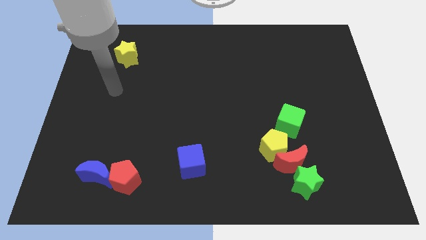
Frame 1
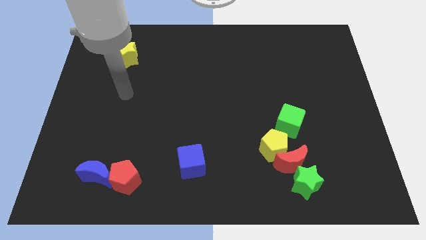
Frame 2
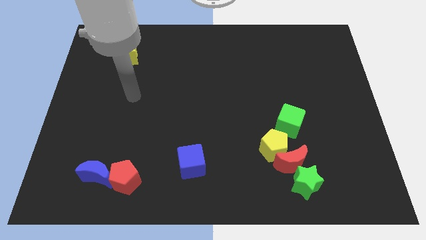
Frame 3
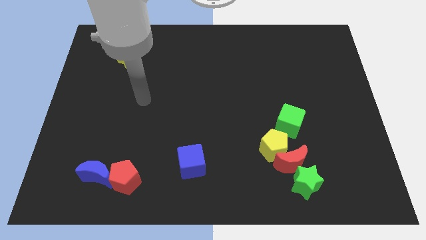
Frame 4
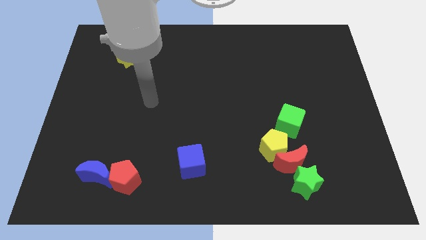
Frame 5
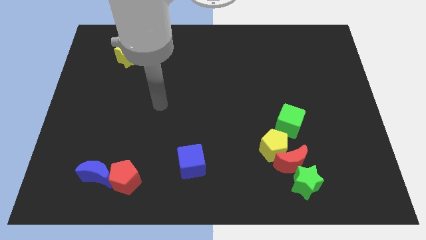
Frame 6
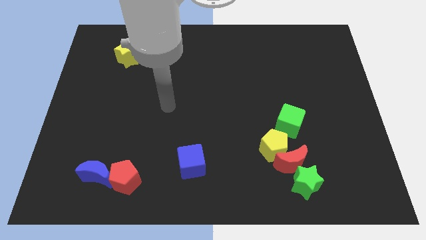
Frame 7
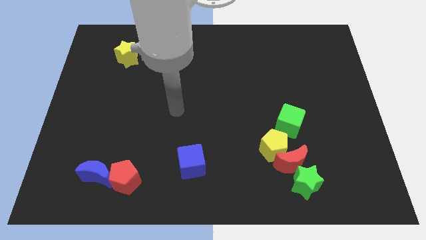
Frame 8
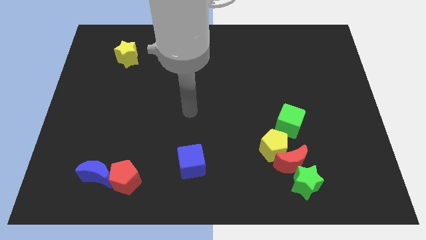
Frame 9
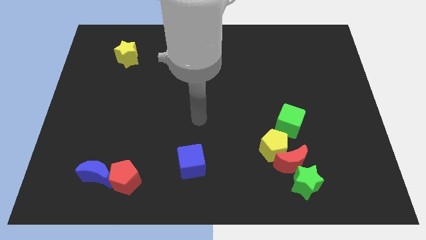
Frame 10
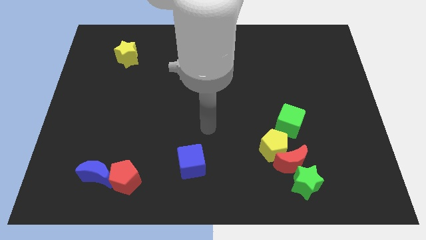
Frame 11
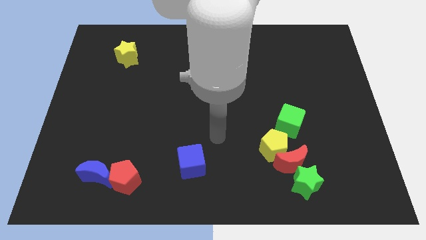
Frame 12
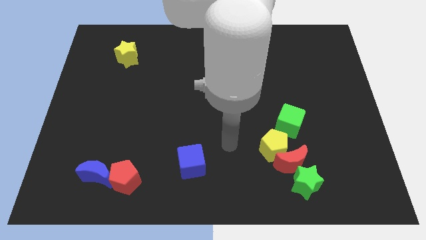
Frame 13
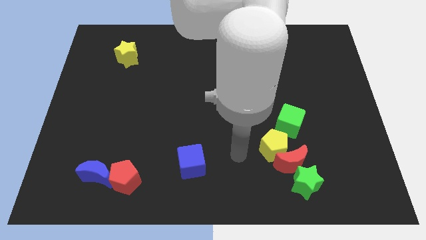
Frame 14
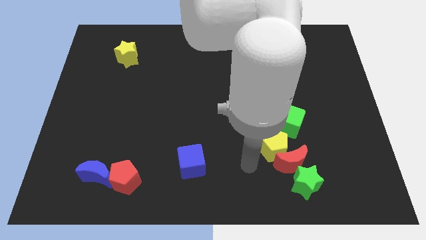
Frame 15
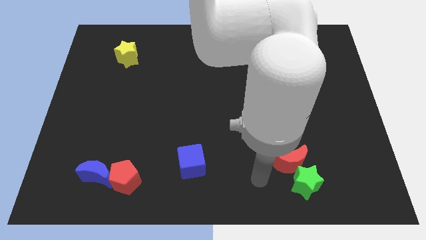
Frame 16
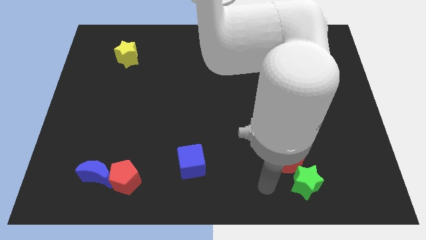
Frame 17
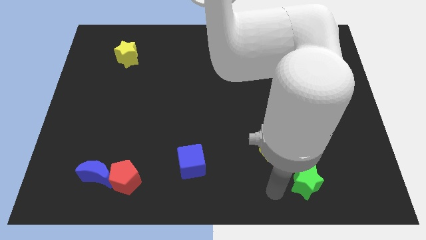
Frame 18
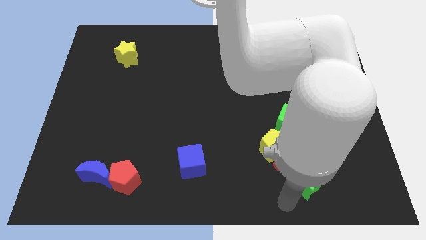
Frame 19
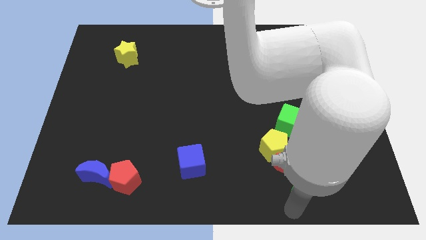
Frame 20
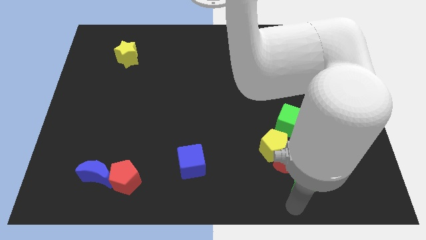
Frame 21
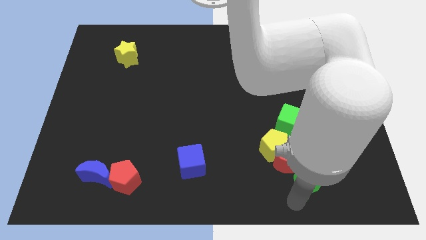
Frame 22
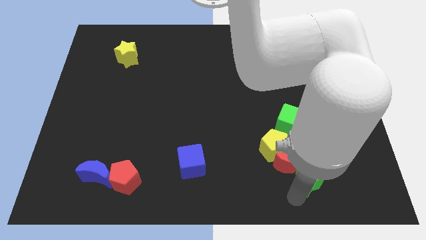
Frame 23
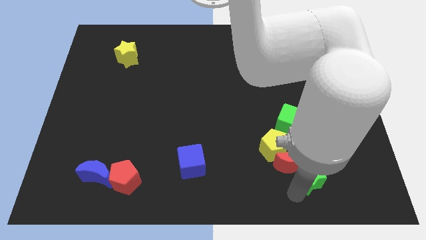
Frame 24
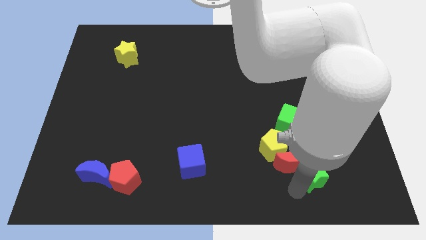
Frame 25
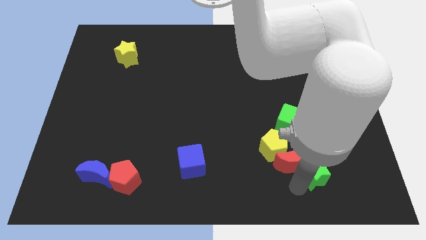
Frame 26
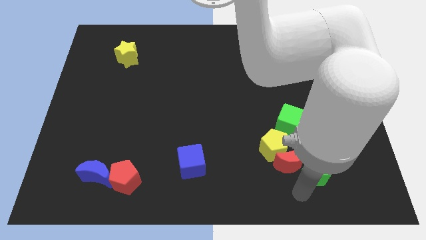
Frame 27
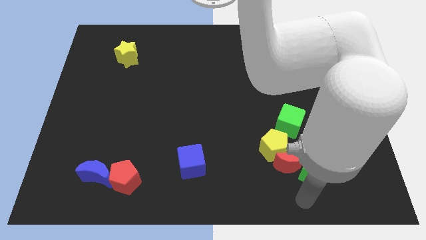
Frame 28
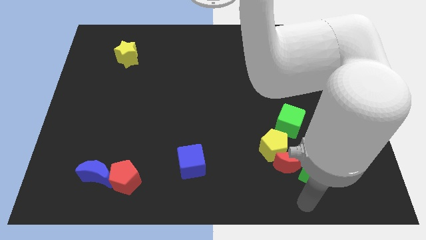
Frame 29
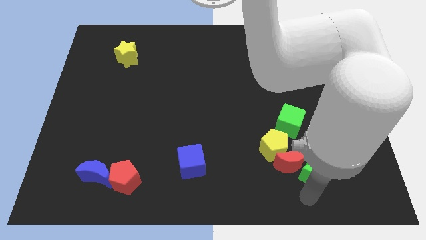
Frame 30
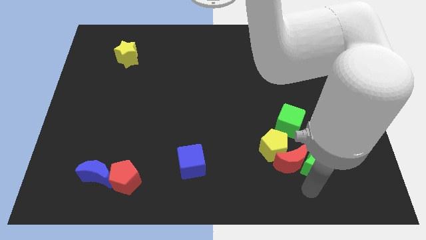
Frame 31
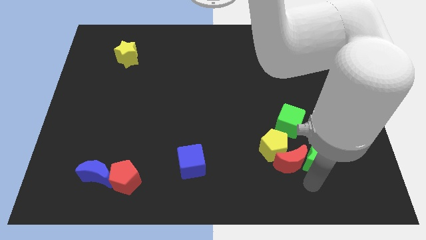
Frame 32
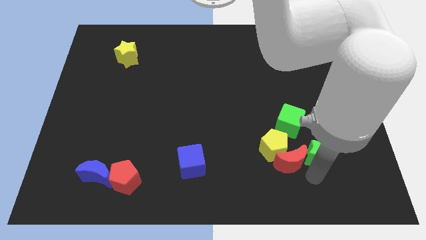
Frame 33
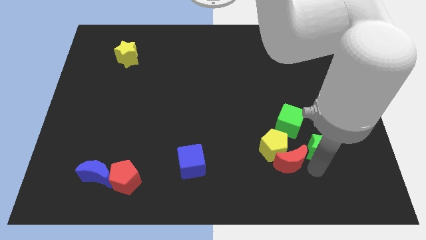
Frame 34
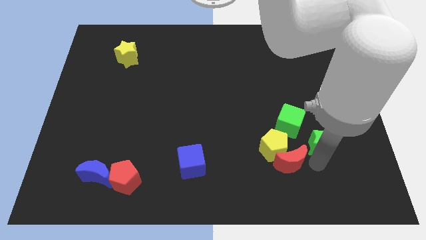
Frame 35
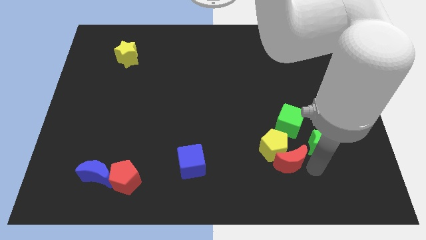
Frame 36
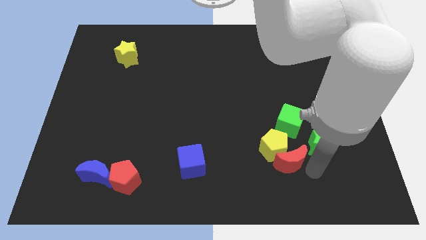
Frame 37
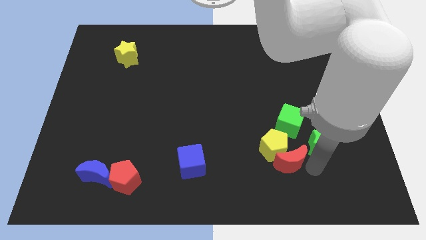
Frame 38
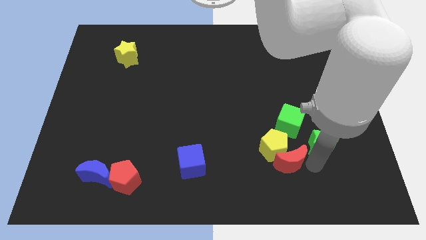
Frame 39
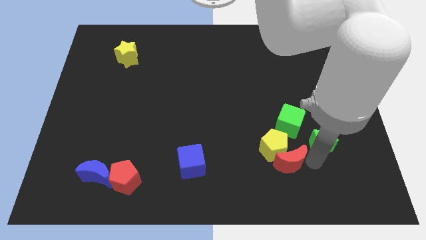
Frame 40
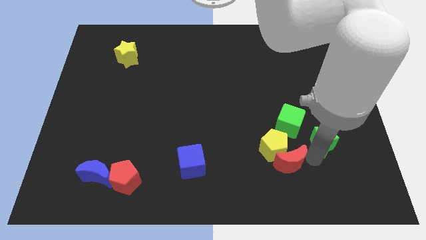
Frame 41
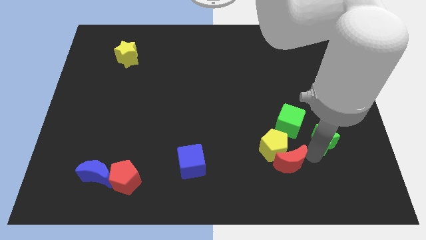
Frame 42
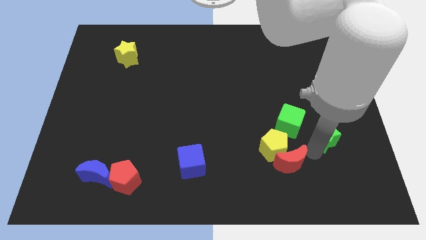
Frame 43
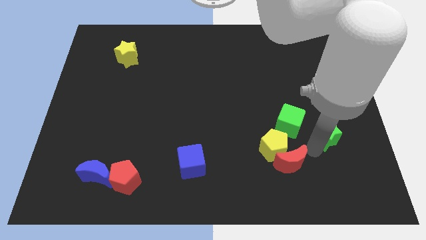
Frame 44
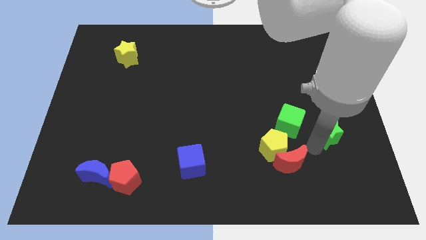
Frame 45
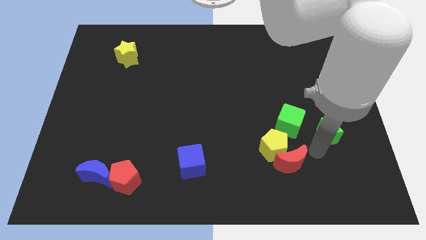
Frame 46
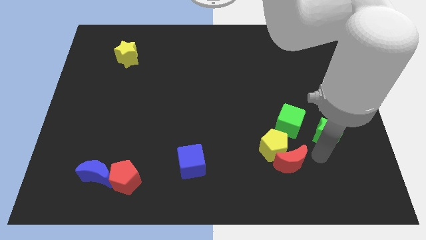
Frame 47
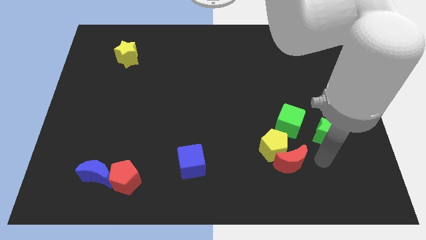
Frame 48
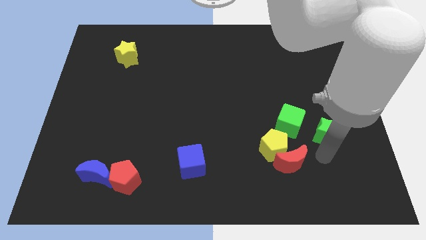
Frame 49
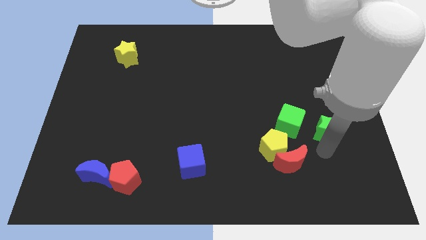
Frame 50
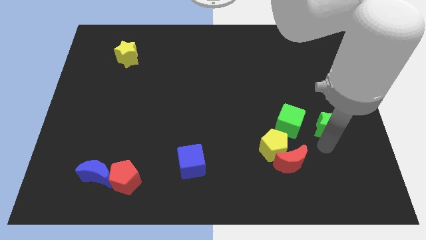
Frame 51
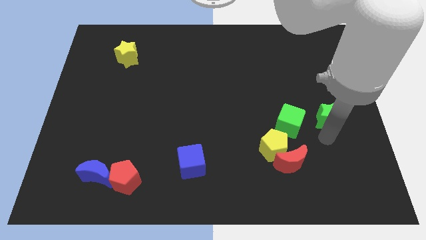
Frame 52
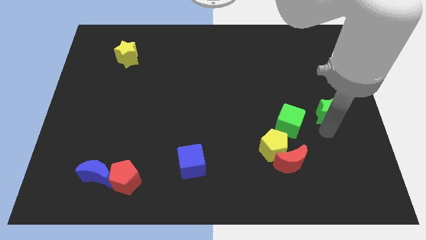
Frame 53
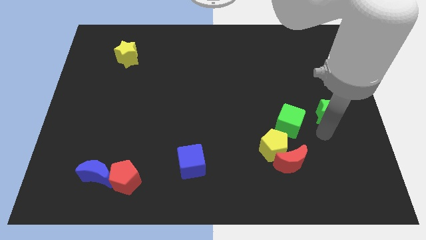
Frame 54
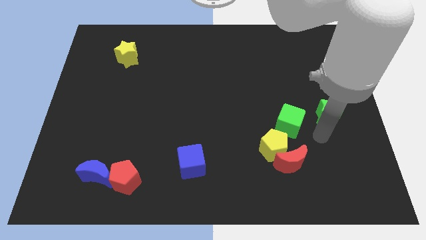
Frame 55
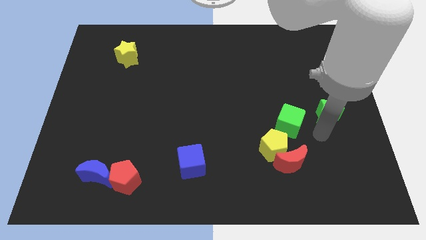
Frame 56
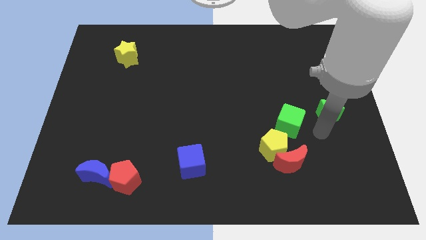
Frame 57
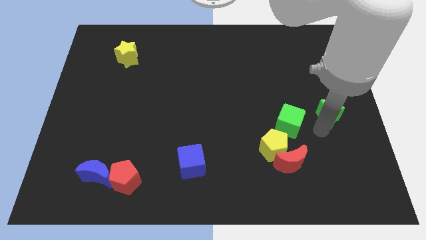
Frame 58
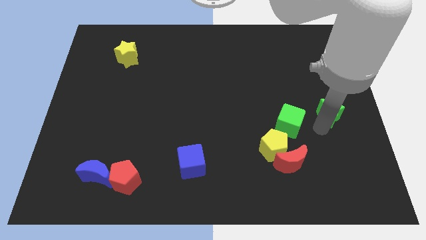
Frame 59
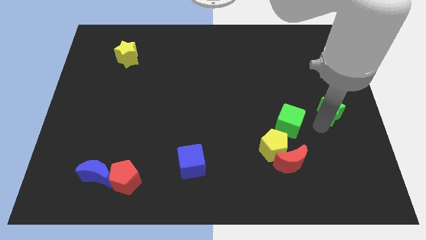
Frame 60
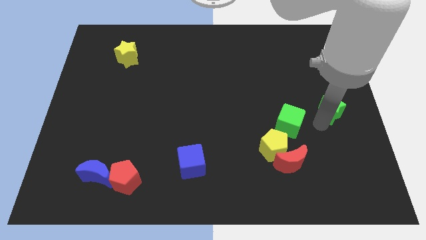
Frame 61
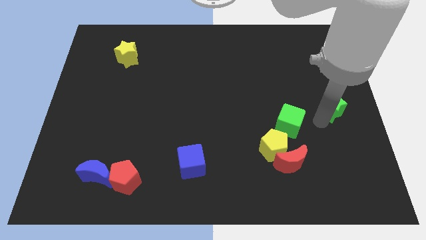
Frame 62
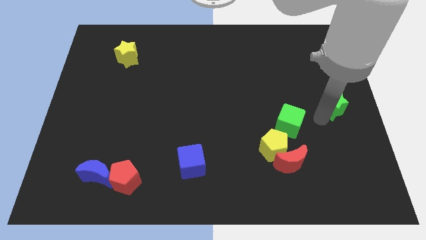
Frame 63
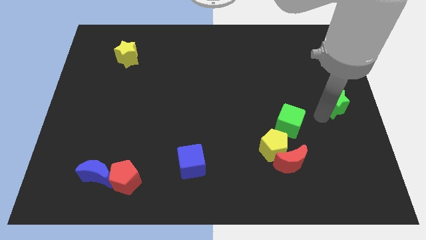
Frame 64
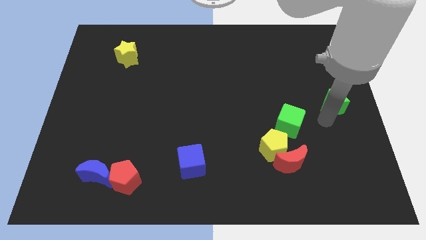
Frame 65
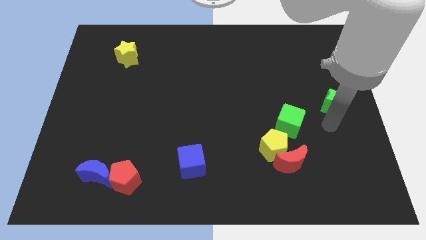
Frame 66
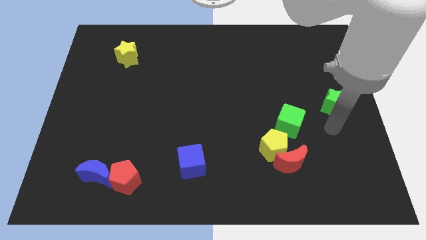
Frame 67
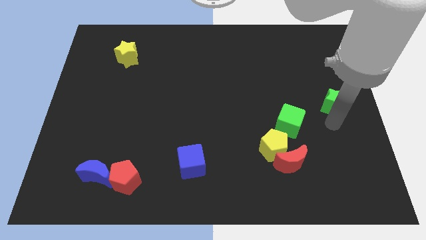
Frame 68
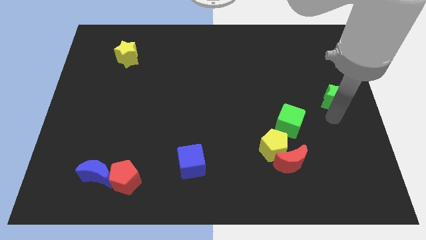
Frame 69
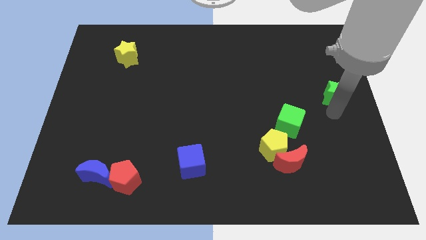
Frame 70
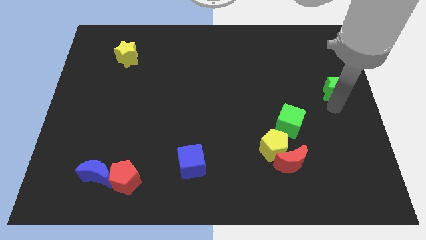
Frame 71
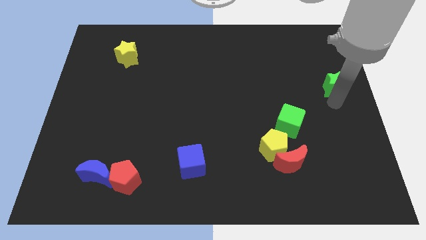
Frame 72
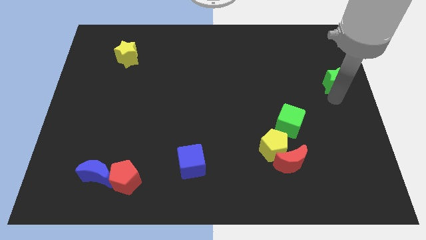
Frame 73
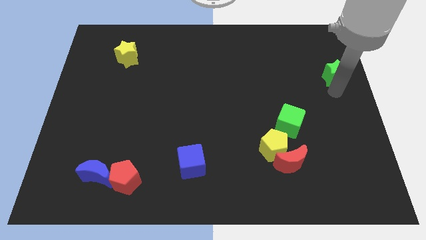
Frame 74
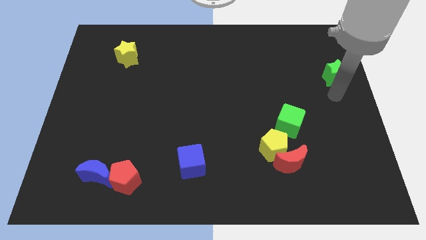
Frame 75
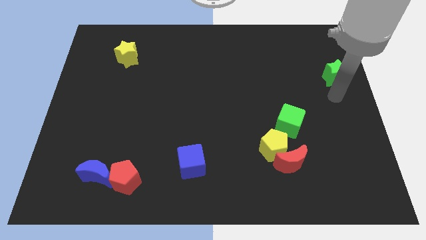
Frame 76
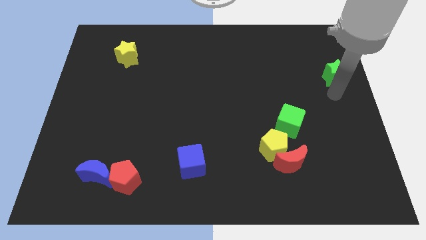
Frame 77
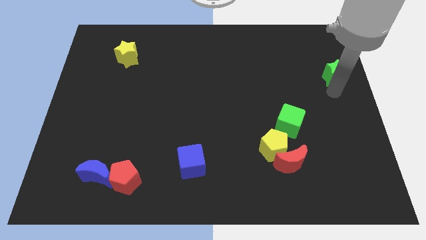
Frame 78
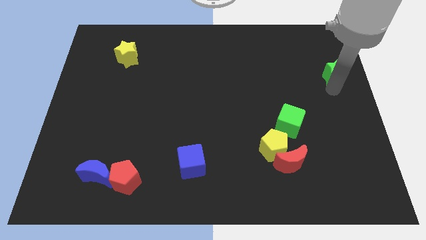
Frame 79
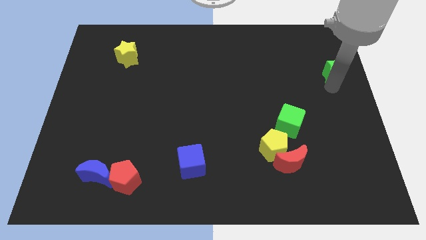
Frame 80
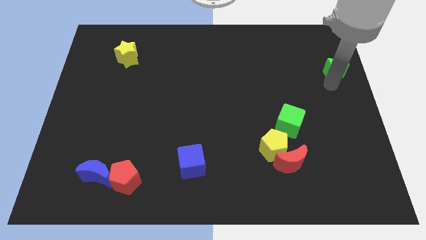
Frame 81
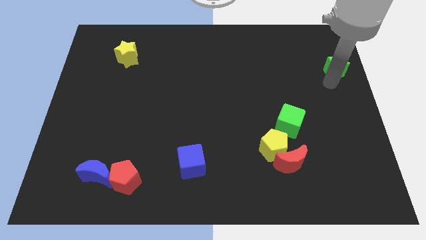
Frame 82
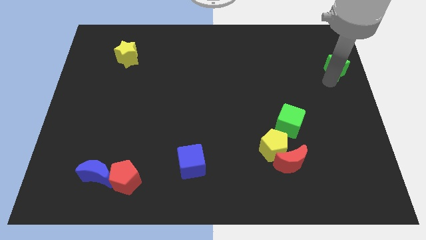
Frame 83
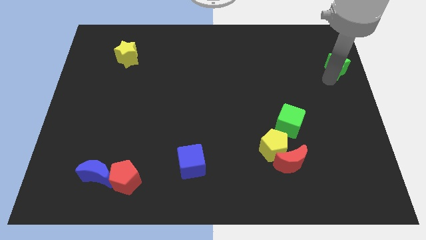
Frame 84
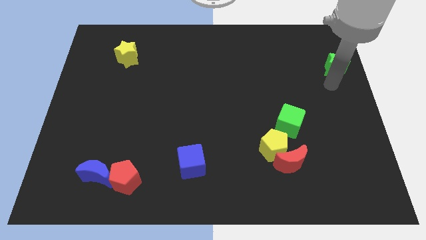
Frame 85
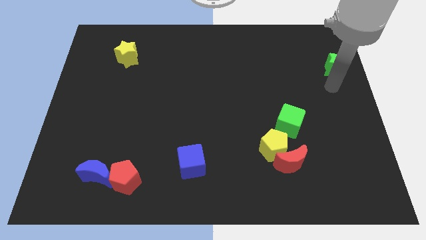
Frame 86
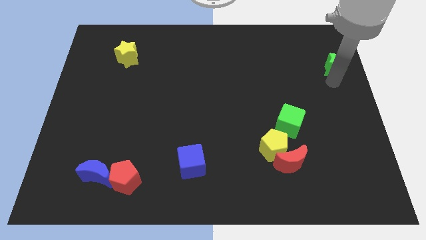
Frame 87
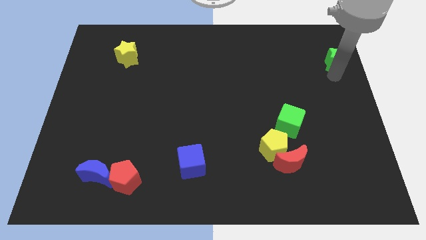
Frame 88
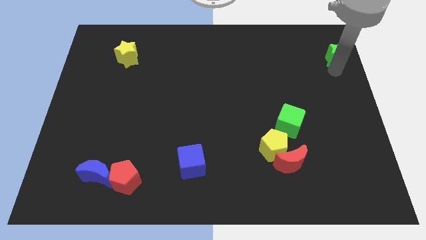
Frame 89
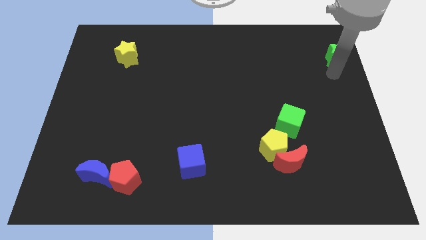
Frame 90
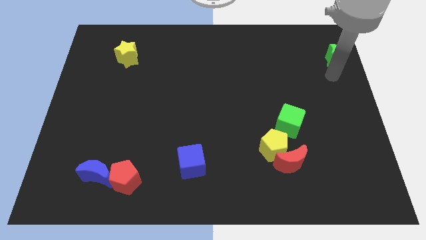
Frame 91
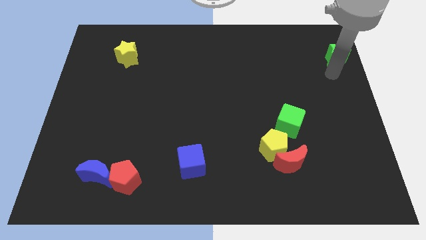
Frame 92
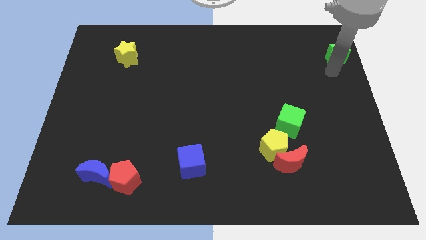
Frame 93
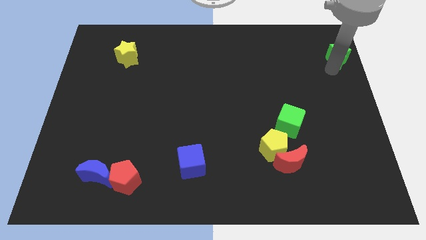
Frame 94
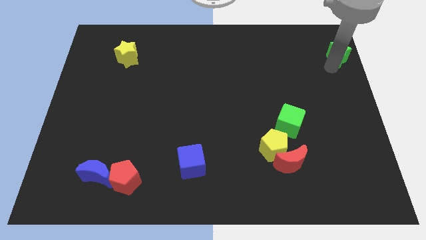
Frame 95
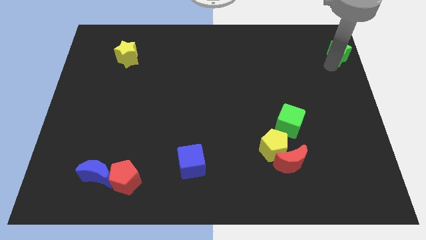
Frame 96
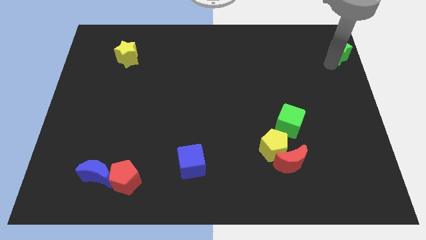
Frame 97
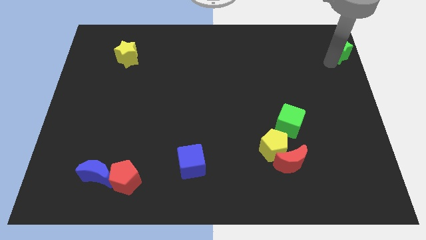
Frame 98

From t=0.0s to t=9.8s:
move the green star to the upper right corner
